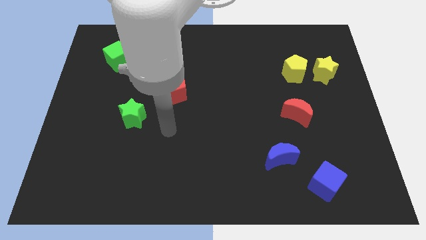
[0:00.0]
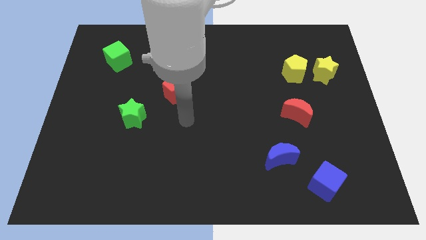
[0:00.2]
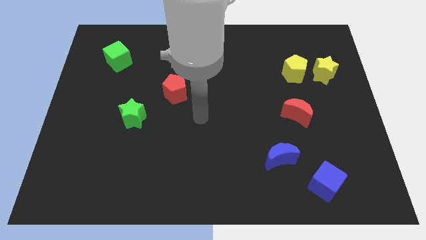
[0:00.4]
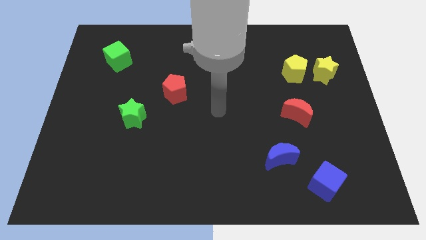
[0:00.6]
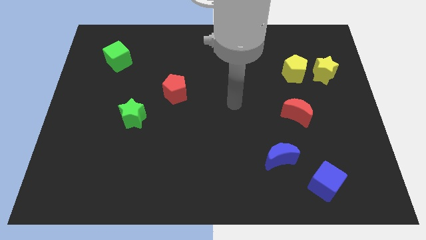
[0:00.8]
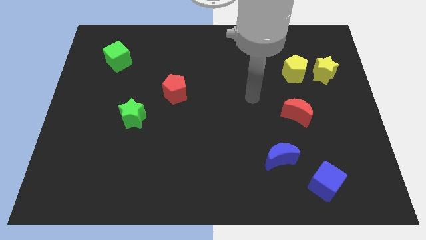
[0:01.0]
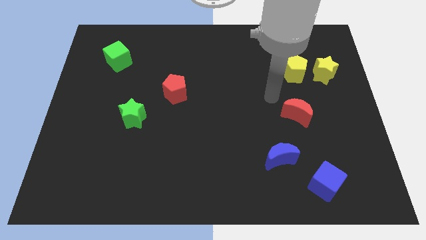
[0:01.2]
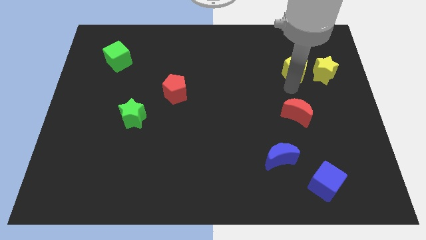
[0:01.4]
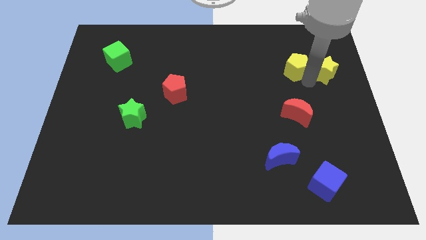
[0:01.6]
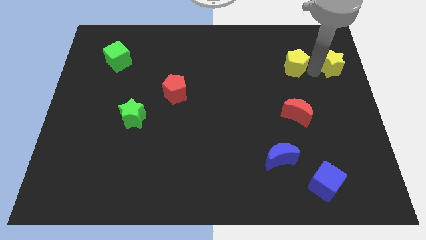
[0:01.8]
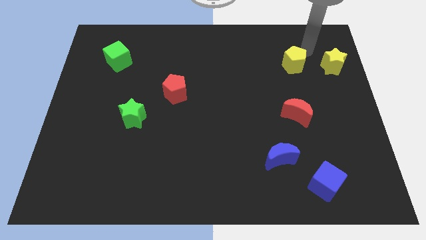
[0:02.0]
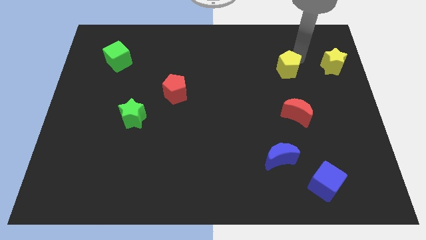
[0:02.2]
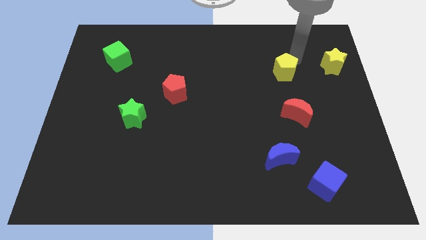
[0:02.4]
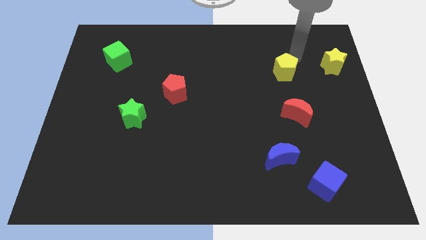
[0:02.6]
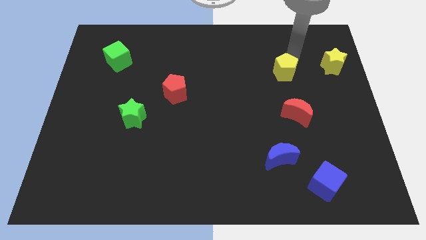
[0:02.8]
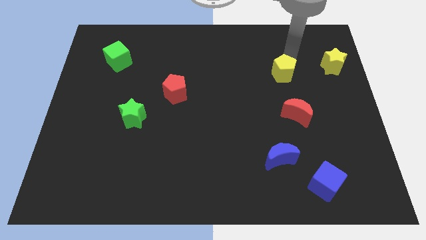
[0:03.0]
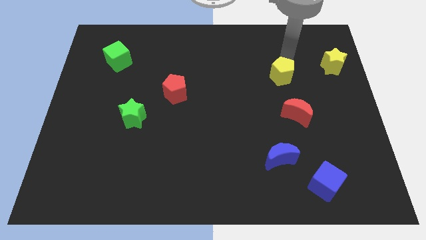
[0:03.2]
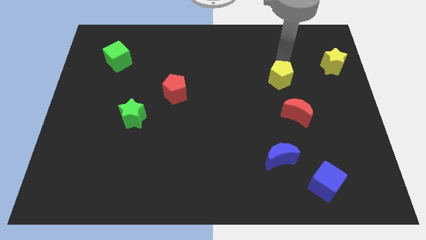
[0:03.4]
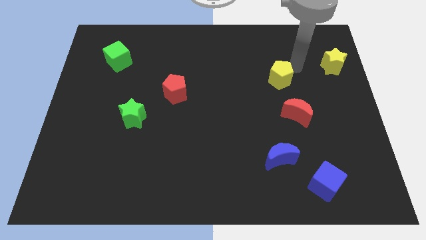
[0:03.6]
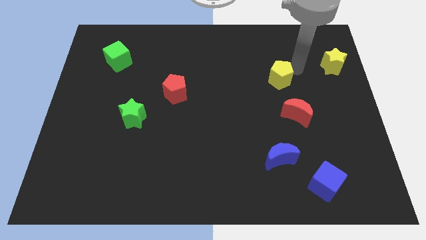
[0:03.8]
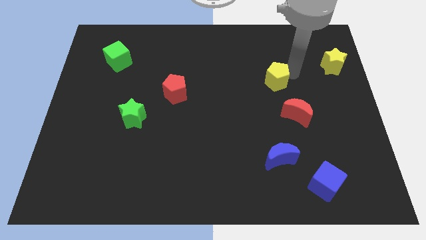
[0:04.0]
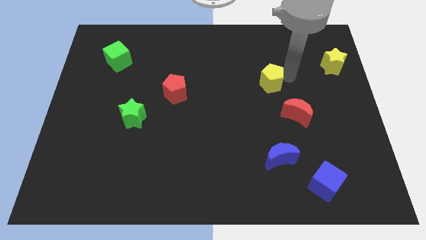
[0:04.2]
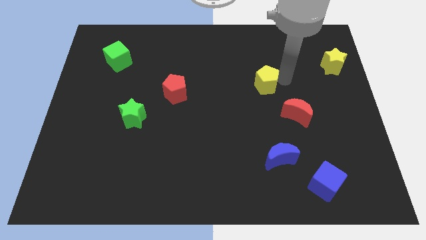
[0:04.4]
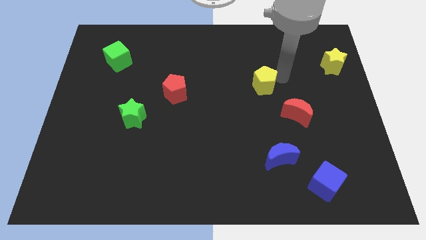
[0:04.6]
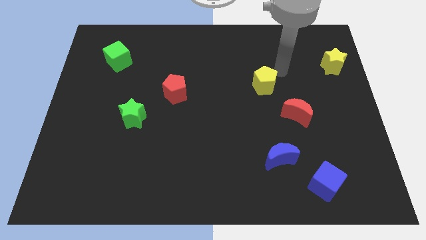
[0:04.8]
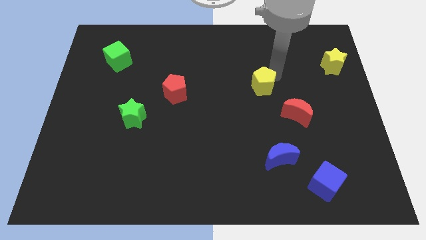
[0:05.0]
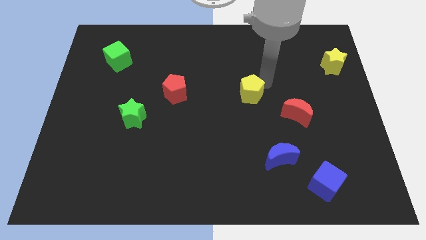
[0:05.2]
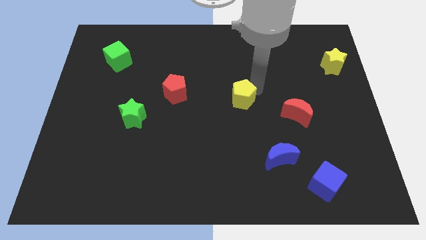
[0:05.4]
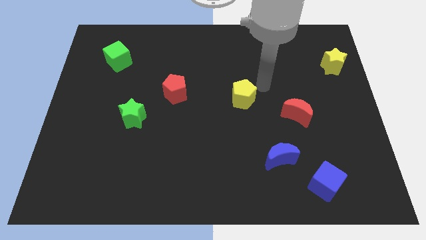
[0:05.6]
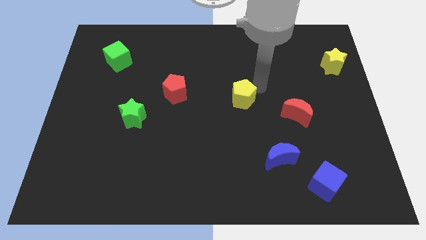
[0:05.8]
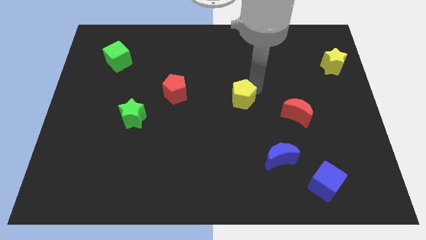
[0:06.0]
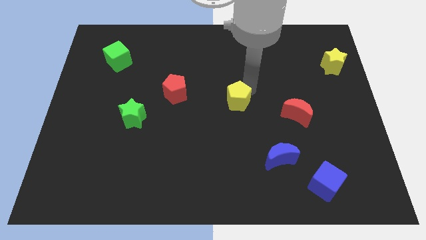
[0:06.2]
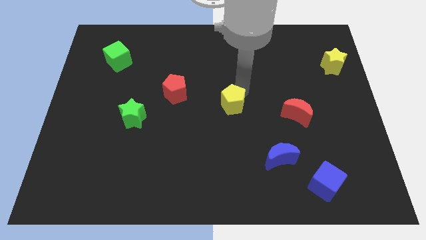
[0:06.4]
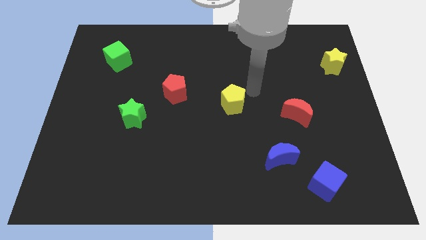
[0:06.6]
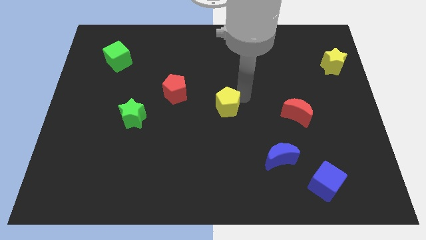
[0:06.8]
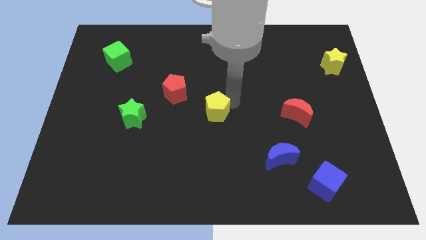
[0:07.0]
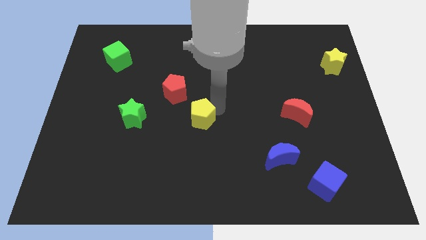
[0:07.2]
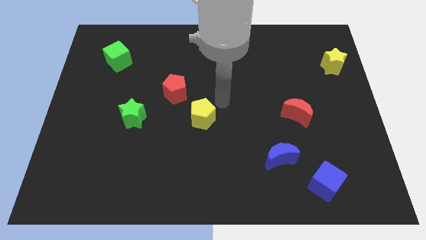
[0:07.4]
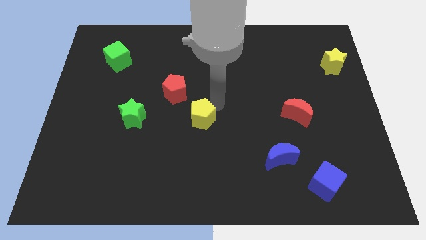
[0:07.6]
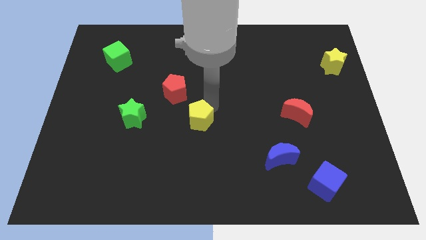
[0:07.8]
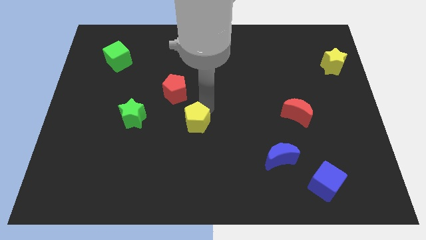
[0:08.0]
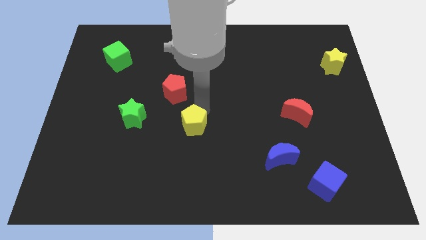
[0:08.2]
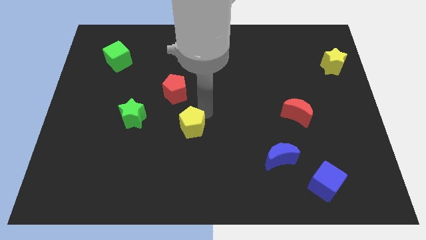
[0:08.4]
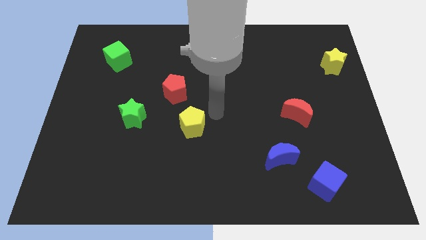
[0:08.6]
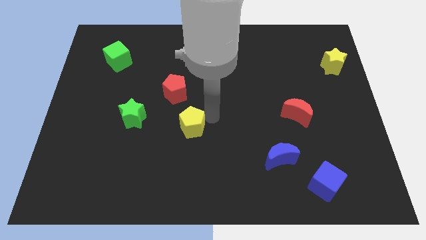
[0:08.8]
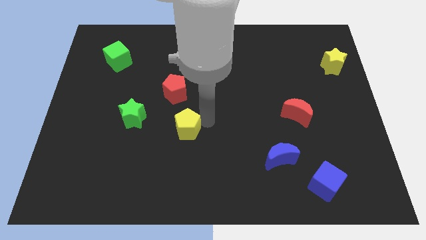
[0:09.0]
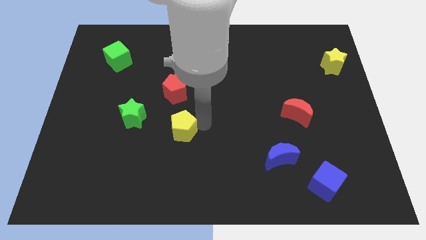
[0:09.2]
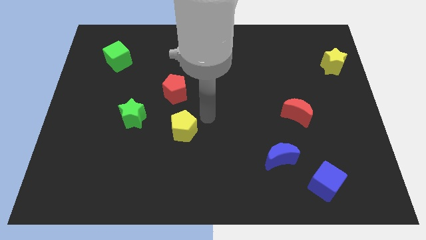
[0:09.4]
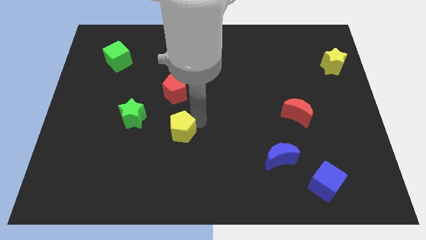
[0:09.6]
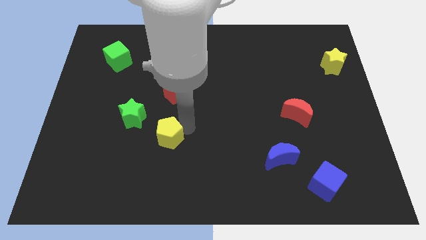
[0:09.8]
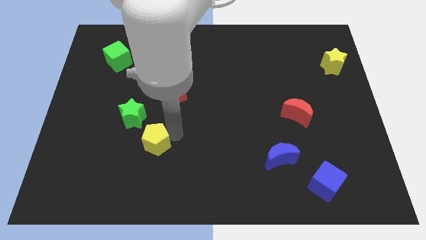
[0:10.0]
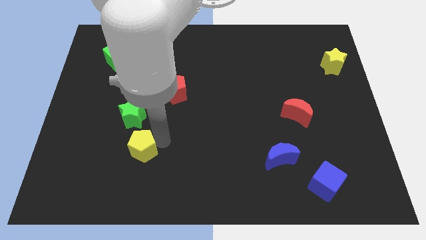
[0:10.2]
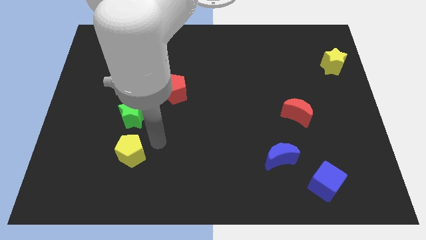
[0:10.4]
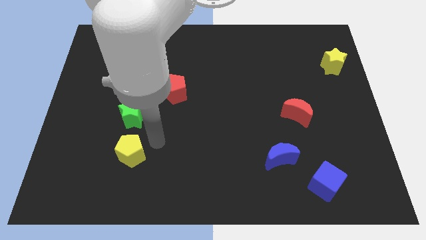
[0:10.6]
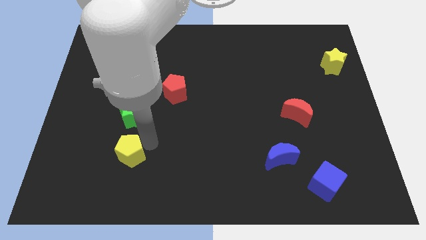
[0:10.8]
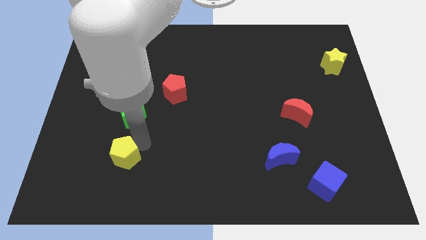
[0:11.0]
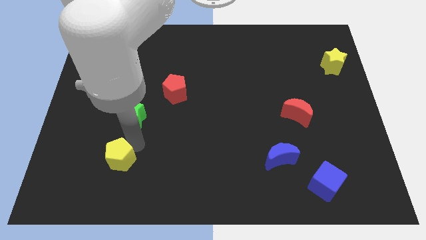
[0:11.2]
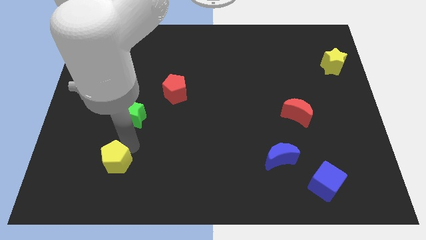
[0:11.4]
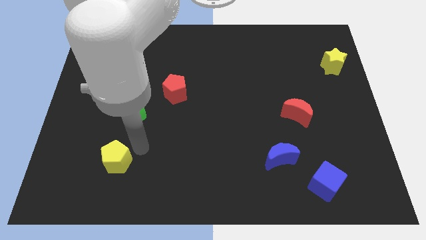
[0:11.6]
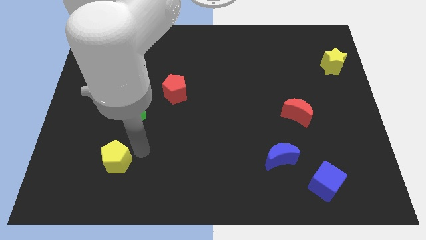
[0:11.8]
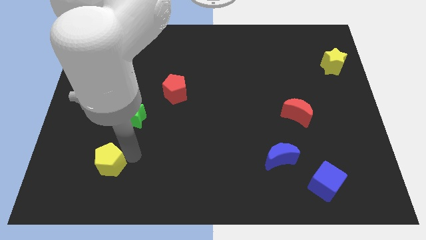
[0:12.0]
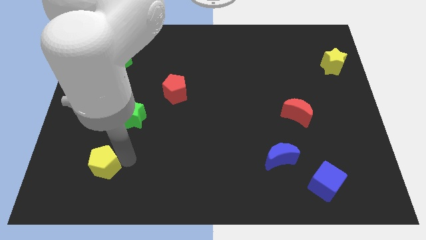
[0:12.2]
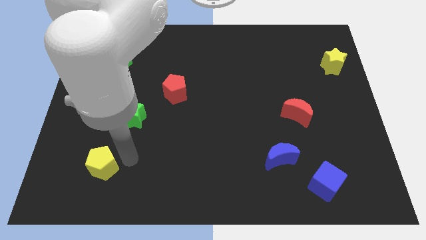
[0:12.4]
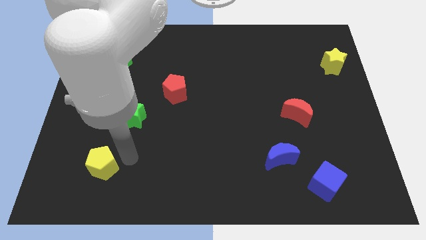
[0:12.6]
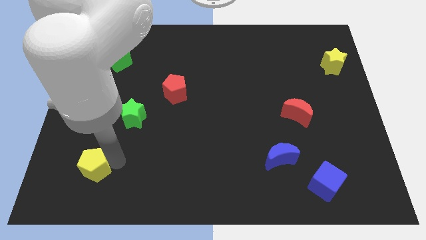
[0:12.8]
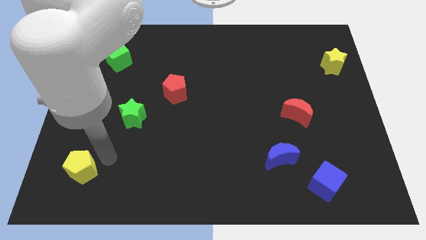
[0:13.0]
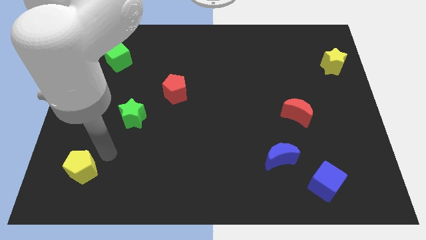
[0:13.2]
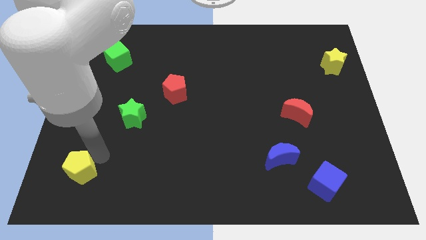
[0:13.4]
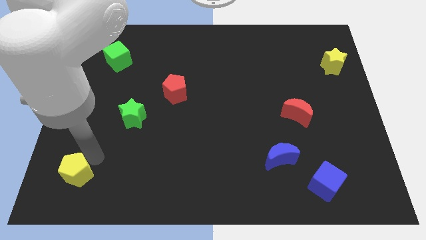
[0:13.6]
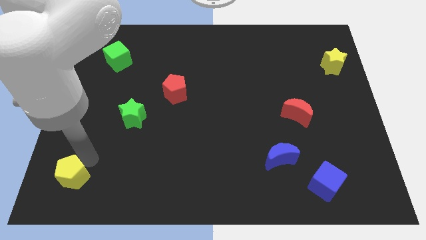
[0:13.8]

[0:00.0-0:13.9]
slide the yellow pentagon to the bottom left corner
